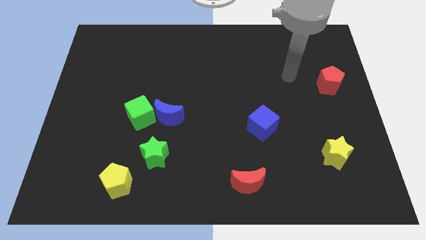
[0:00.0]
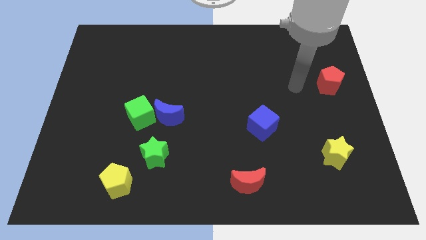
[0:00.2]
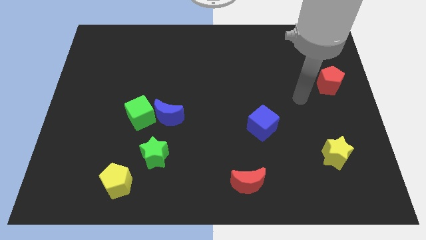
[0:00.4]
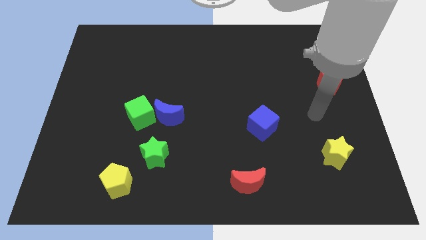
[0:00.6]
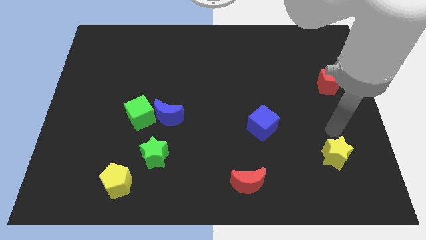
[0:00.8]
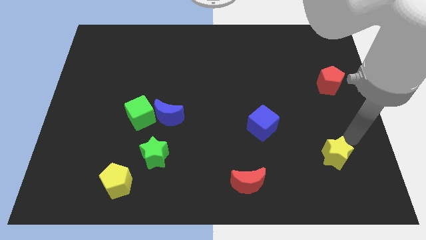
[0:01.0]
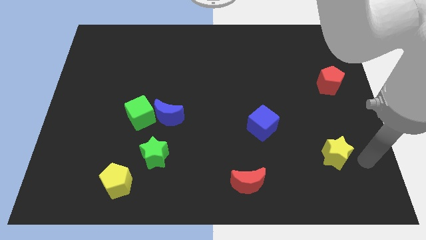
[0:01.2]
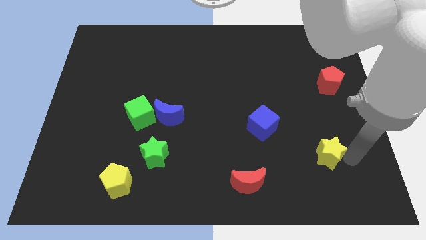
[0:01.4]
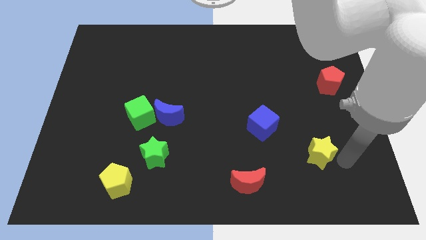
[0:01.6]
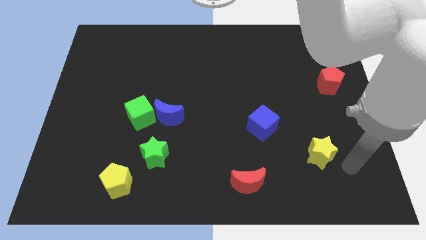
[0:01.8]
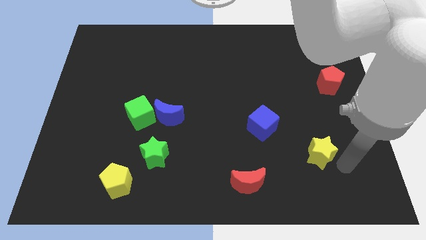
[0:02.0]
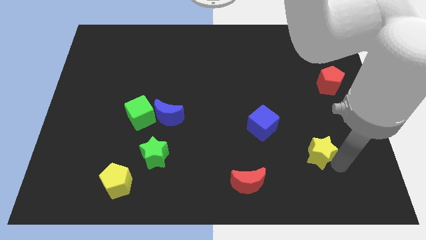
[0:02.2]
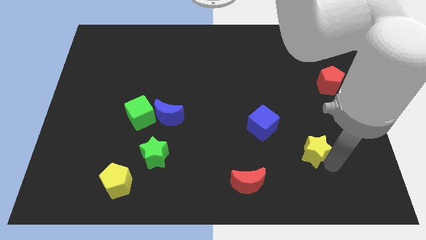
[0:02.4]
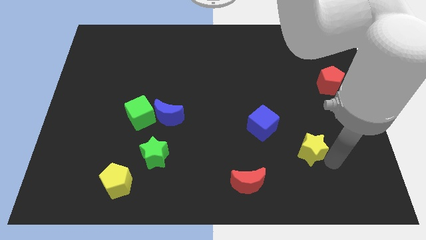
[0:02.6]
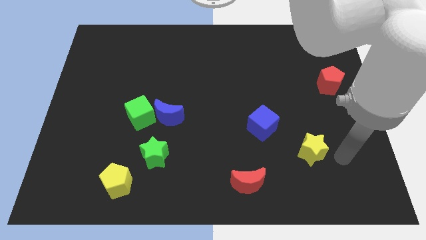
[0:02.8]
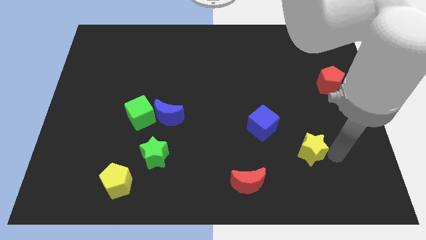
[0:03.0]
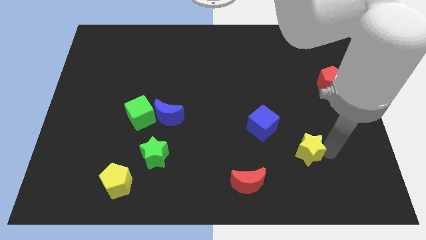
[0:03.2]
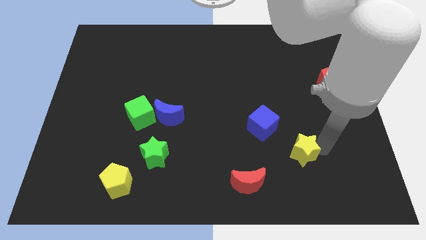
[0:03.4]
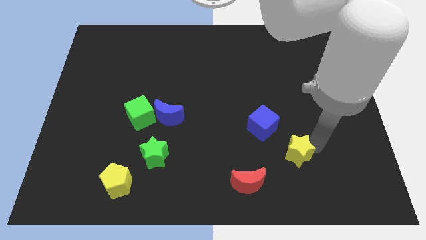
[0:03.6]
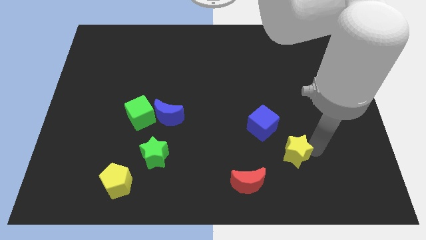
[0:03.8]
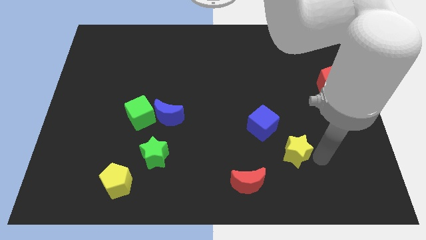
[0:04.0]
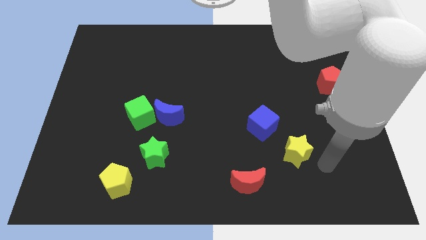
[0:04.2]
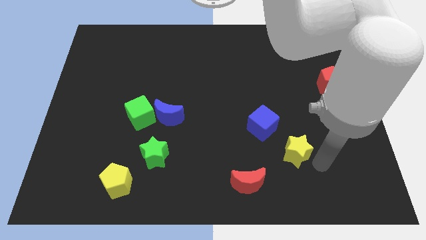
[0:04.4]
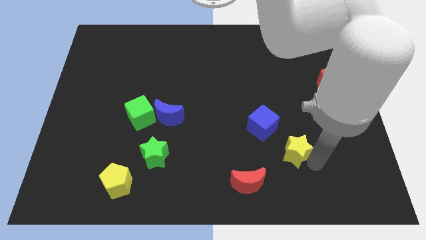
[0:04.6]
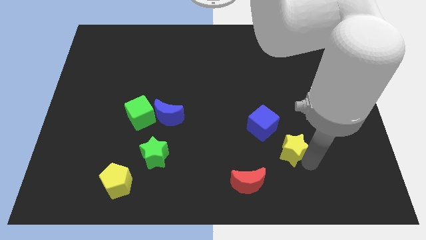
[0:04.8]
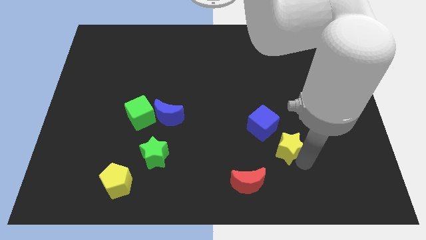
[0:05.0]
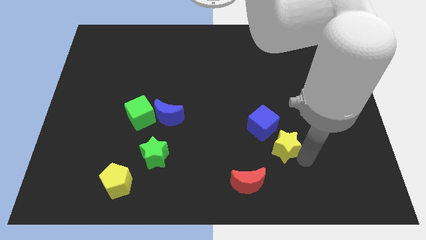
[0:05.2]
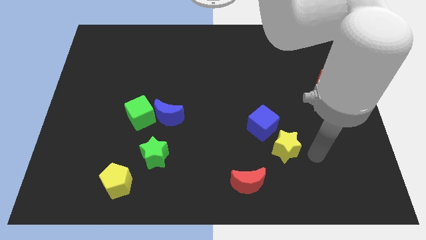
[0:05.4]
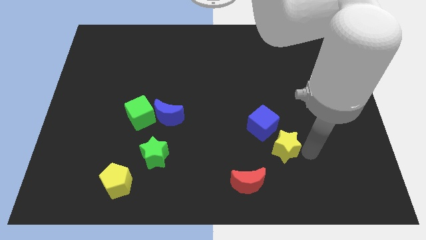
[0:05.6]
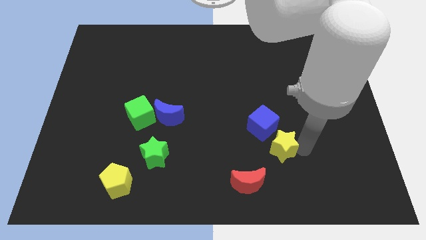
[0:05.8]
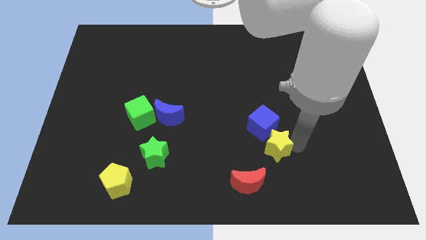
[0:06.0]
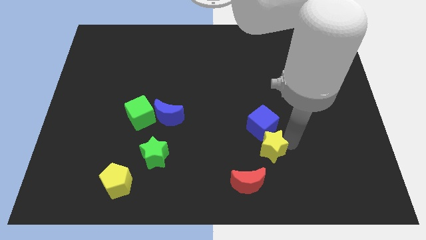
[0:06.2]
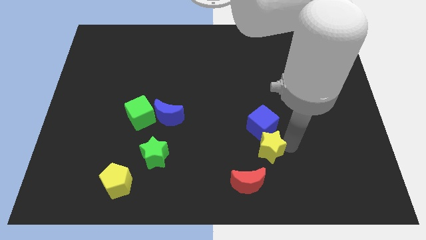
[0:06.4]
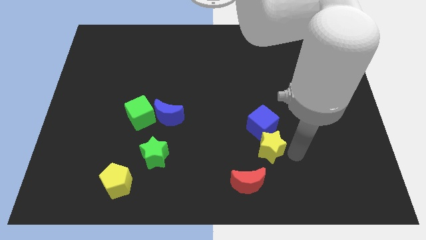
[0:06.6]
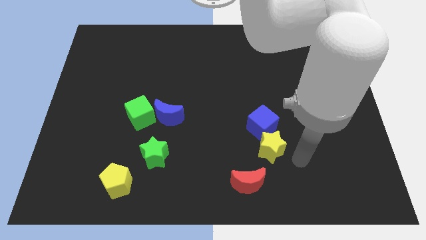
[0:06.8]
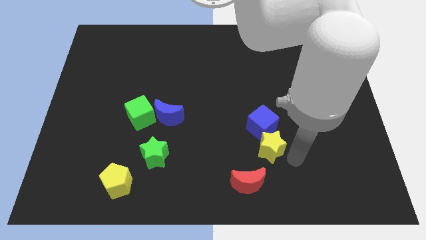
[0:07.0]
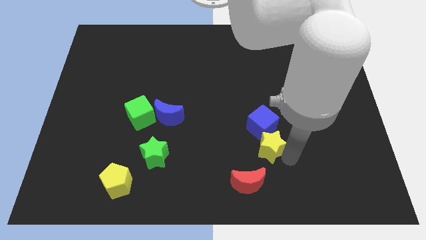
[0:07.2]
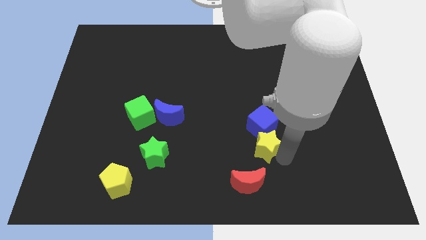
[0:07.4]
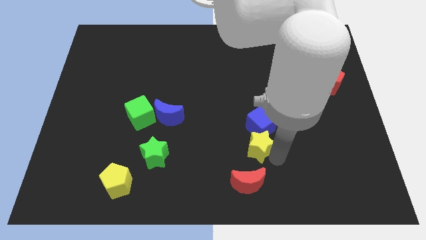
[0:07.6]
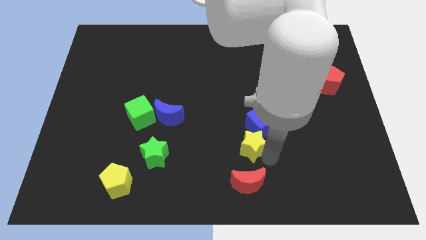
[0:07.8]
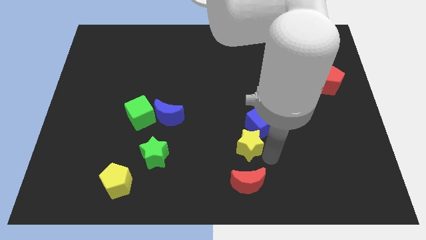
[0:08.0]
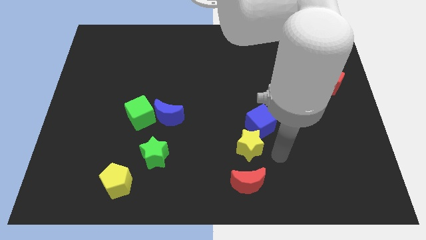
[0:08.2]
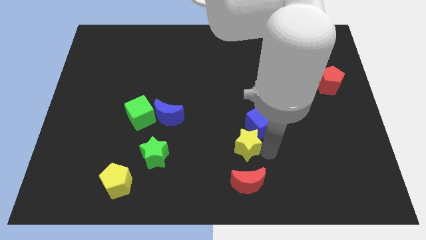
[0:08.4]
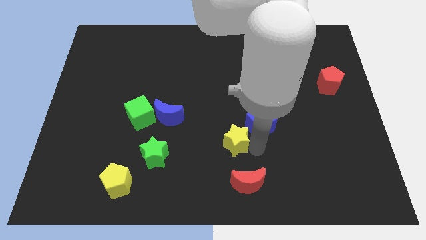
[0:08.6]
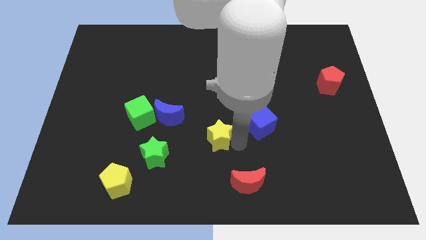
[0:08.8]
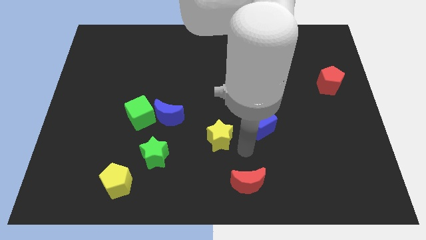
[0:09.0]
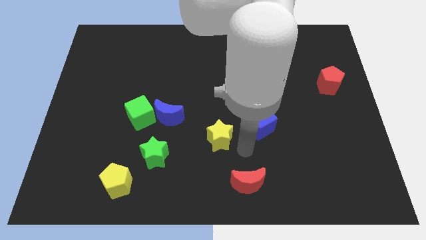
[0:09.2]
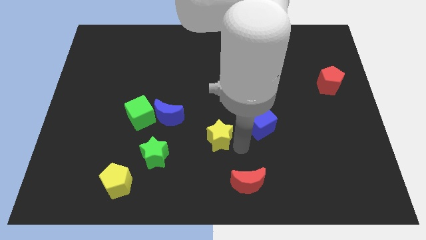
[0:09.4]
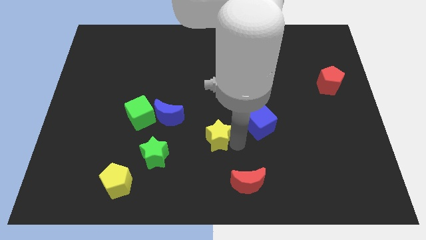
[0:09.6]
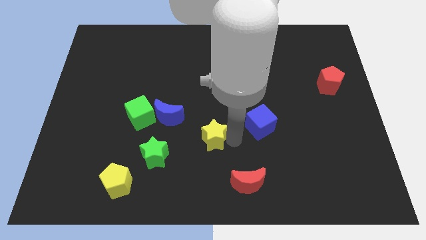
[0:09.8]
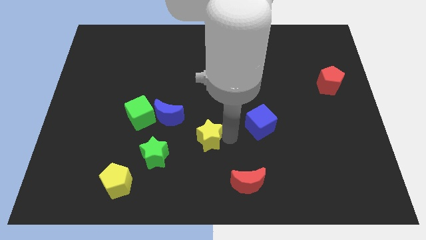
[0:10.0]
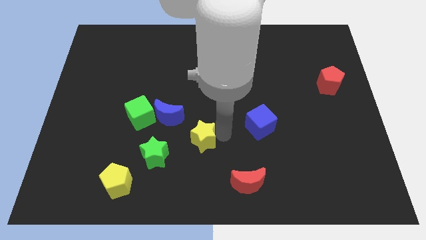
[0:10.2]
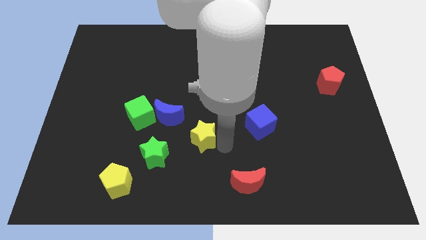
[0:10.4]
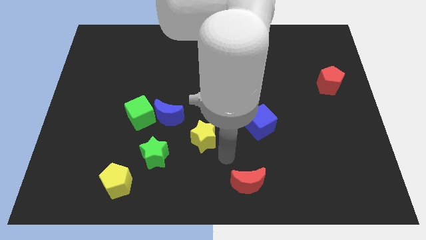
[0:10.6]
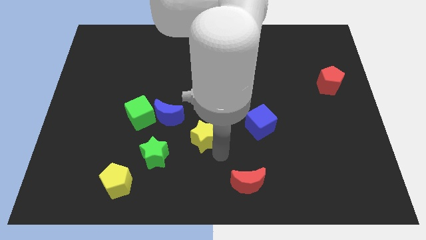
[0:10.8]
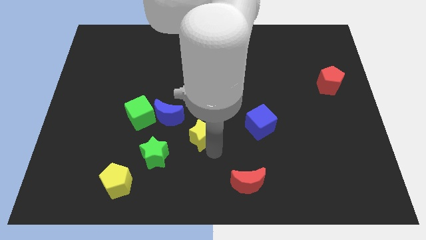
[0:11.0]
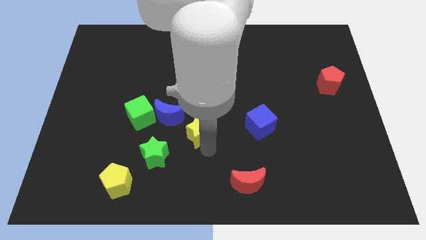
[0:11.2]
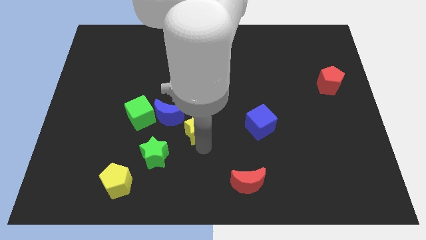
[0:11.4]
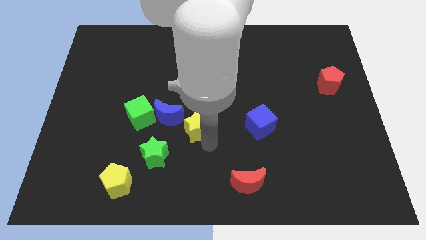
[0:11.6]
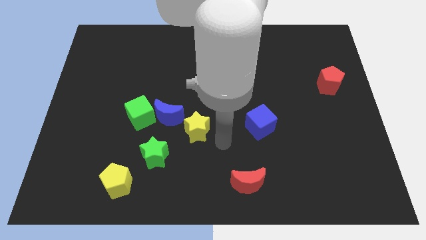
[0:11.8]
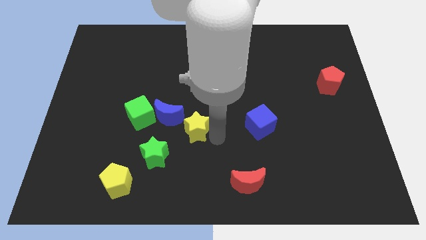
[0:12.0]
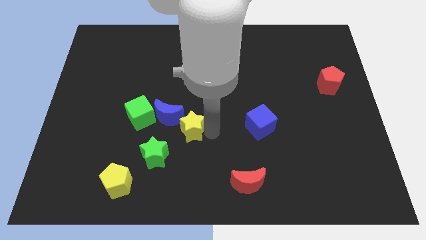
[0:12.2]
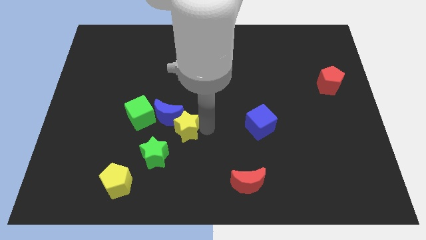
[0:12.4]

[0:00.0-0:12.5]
slide the yellow star towards the blue moon
